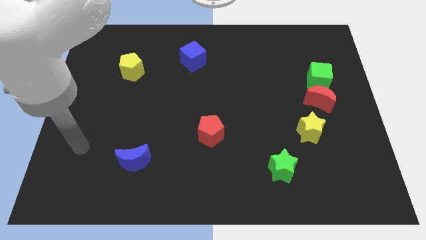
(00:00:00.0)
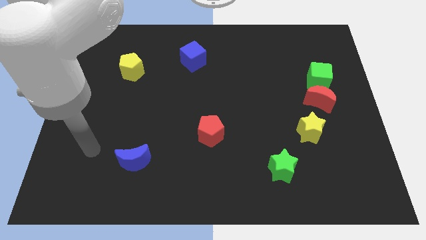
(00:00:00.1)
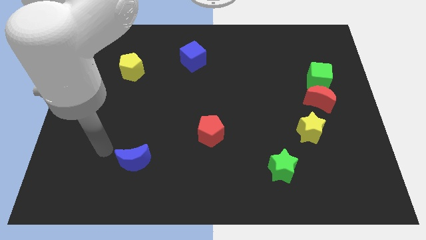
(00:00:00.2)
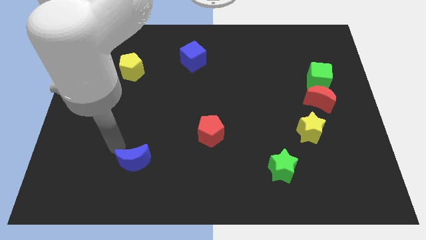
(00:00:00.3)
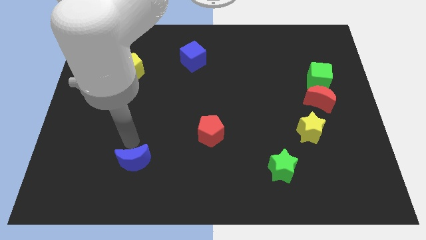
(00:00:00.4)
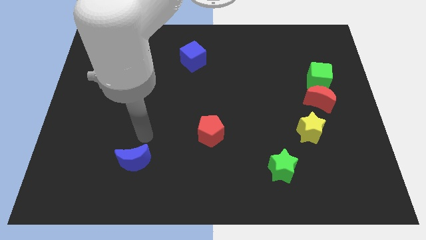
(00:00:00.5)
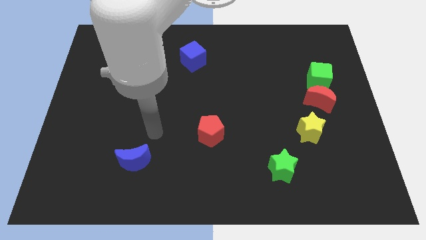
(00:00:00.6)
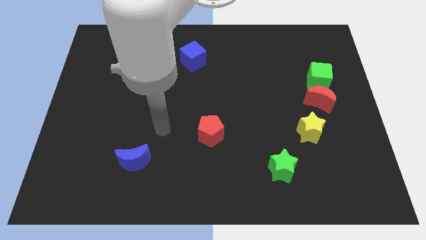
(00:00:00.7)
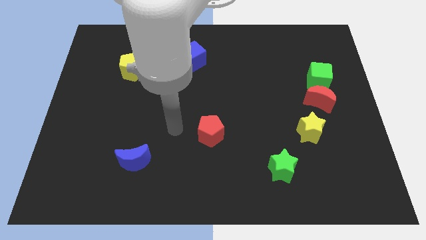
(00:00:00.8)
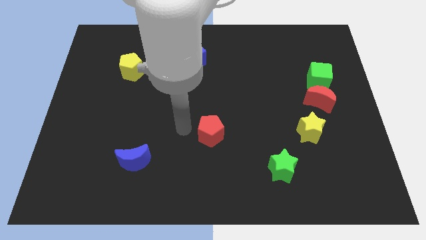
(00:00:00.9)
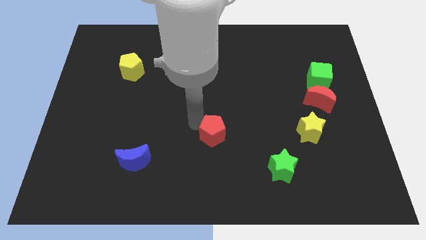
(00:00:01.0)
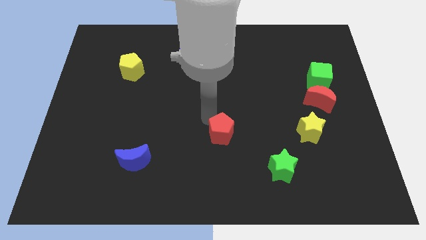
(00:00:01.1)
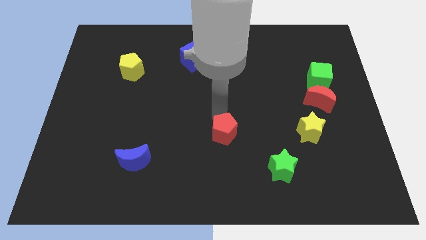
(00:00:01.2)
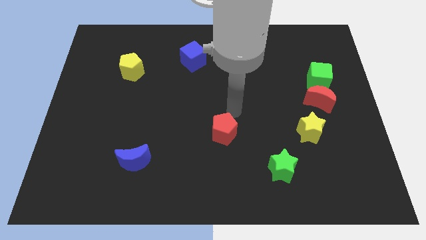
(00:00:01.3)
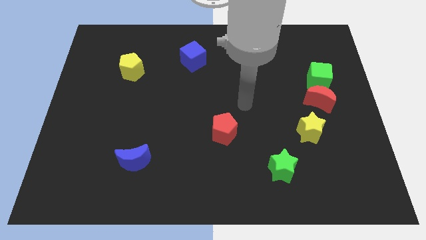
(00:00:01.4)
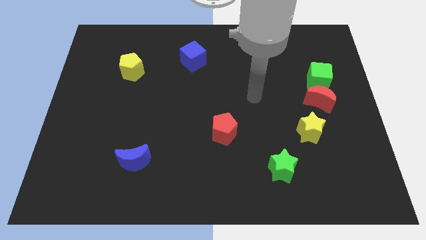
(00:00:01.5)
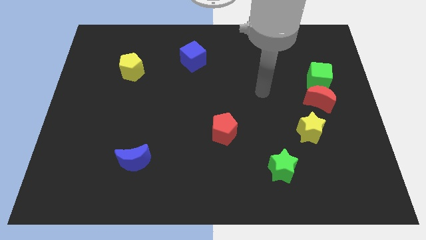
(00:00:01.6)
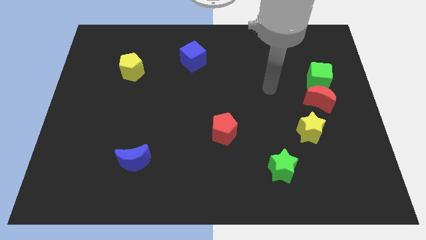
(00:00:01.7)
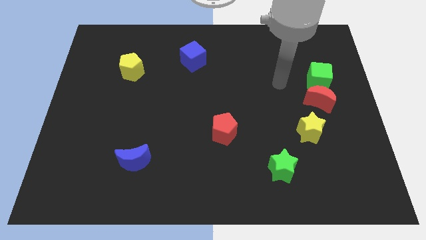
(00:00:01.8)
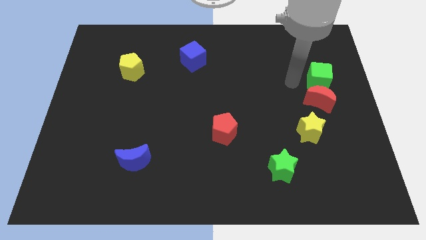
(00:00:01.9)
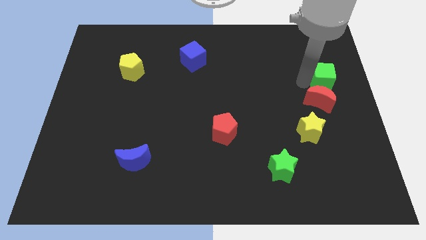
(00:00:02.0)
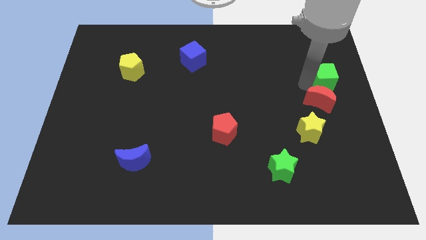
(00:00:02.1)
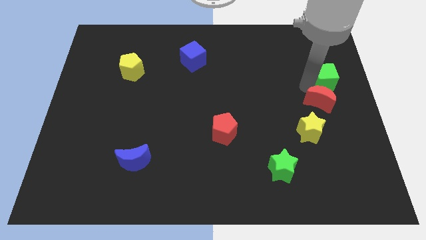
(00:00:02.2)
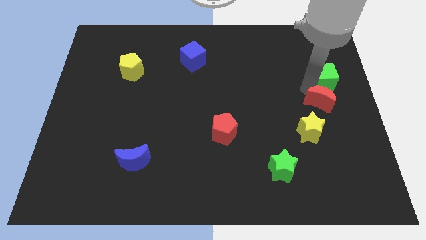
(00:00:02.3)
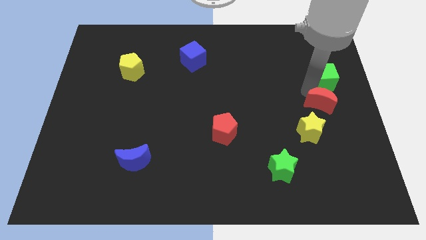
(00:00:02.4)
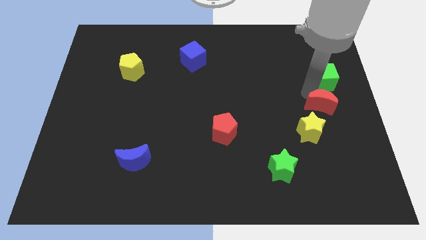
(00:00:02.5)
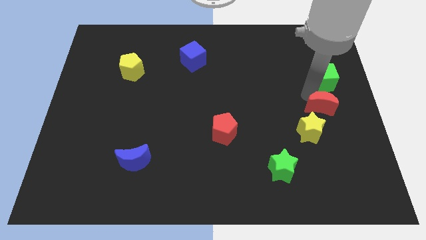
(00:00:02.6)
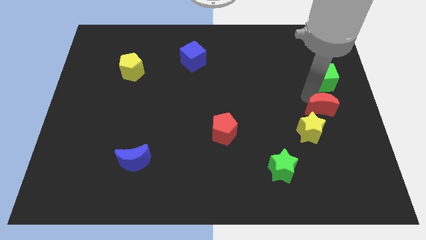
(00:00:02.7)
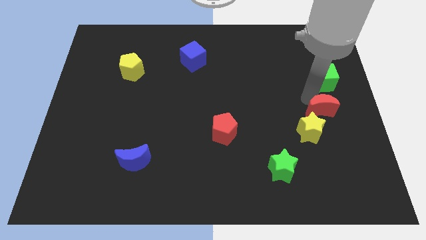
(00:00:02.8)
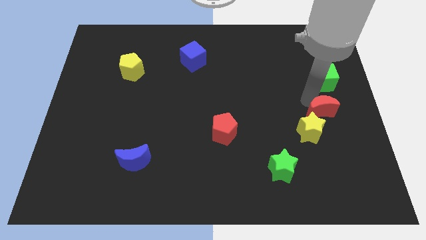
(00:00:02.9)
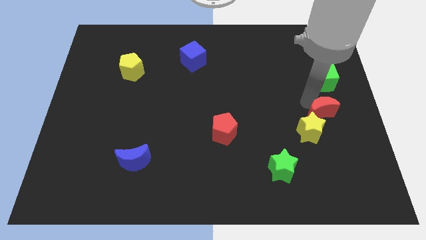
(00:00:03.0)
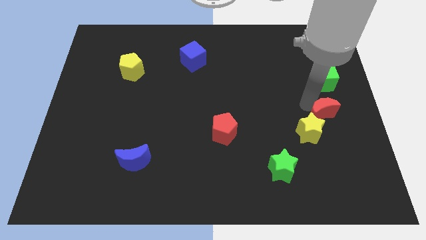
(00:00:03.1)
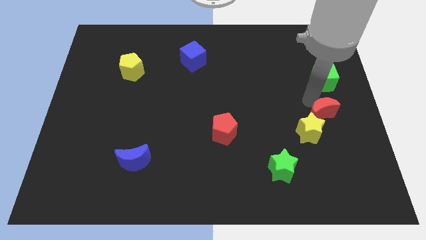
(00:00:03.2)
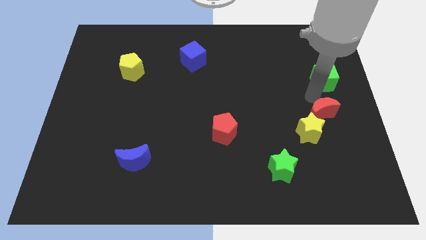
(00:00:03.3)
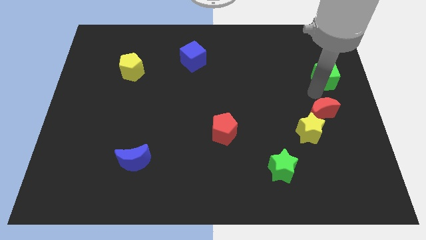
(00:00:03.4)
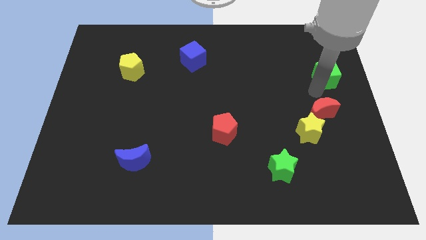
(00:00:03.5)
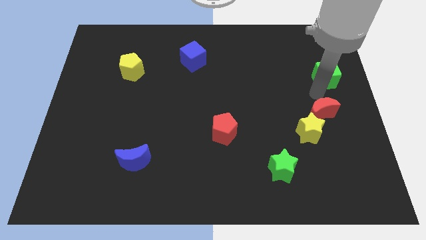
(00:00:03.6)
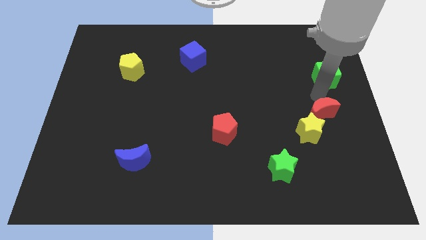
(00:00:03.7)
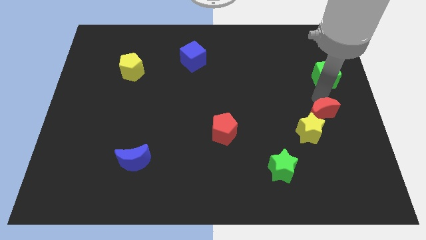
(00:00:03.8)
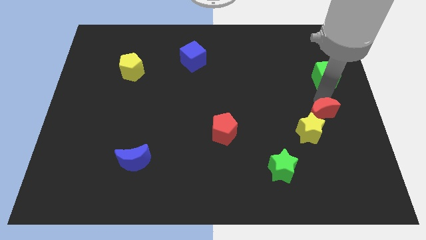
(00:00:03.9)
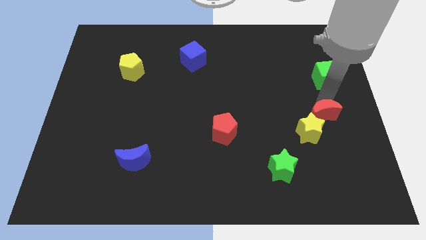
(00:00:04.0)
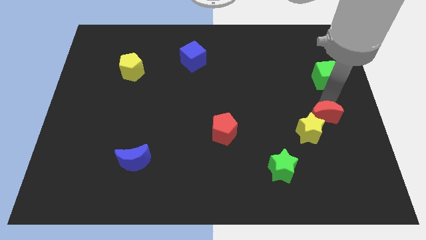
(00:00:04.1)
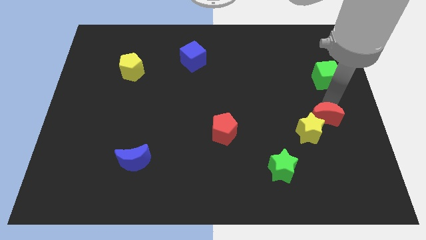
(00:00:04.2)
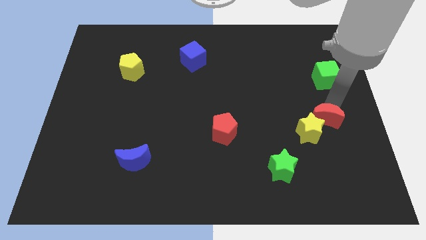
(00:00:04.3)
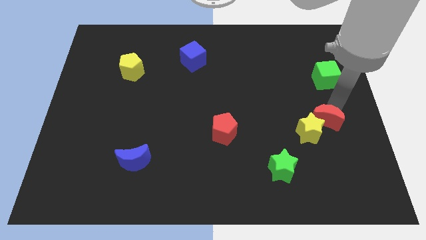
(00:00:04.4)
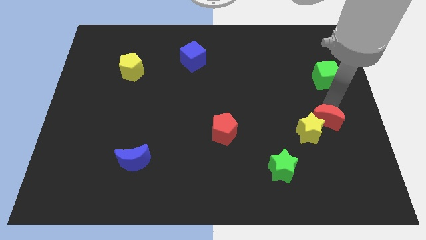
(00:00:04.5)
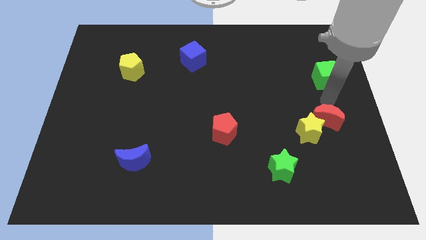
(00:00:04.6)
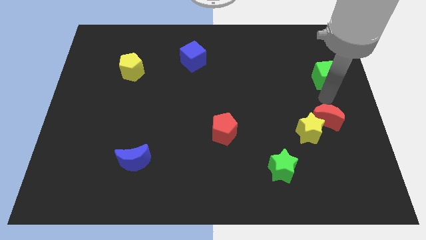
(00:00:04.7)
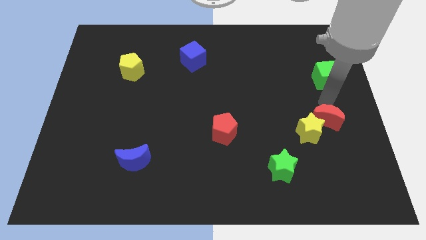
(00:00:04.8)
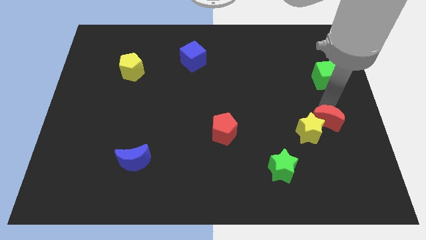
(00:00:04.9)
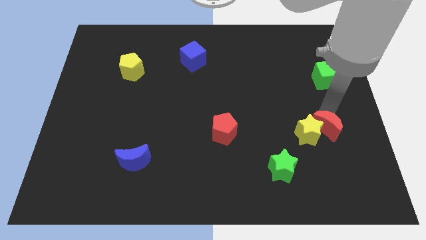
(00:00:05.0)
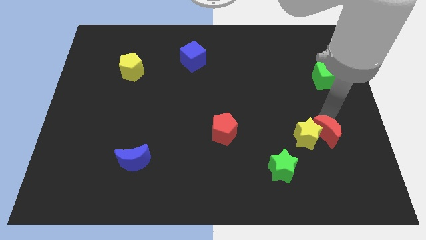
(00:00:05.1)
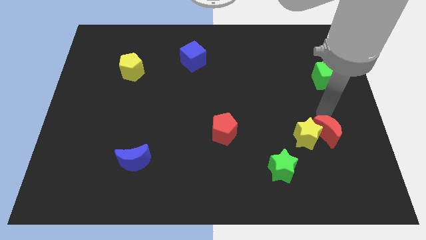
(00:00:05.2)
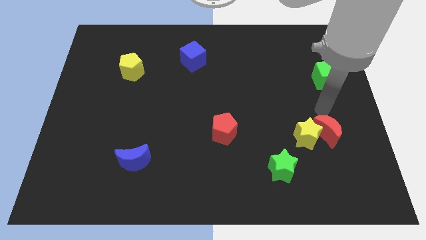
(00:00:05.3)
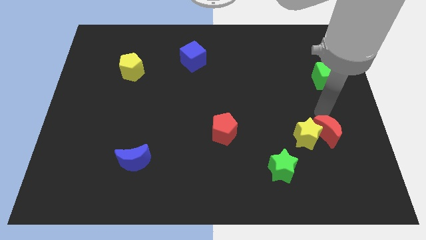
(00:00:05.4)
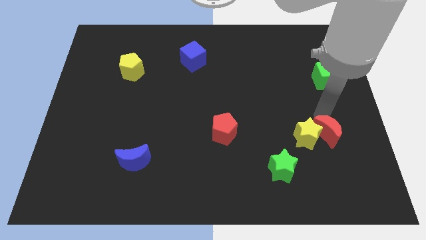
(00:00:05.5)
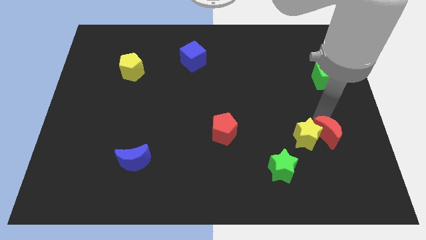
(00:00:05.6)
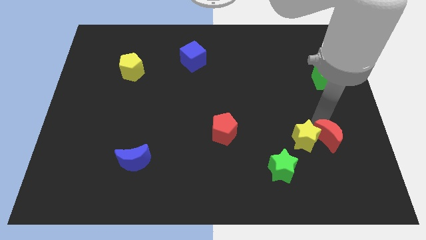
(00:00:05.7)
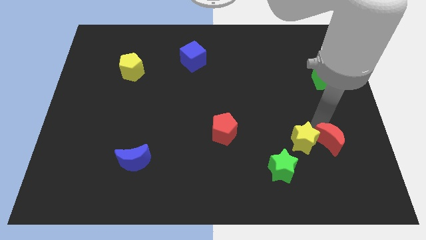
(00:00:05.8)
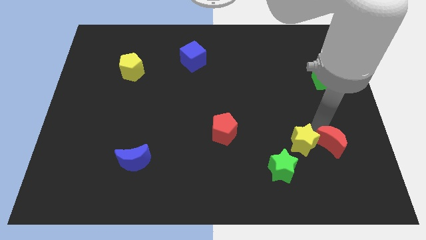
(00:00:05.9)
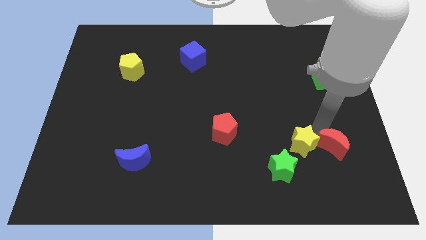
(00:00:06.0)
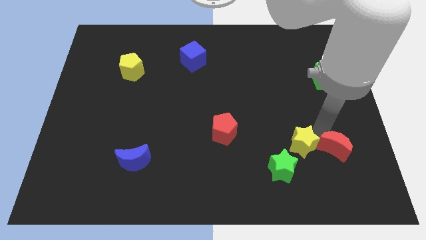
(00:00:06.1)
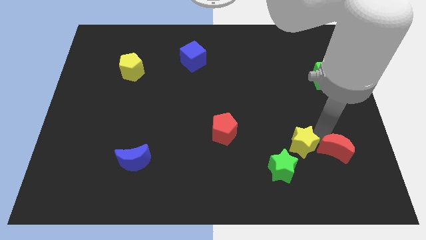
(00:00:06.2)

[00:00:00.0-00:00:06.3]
put the red moon to the right of the green star

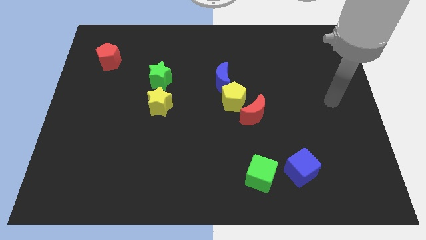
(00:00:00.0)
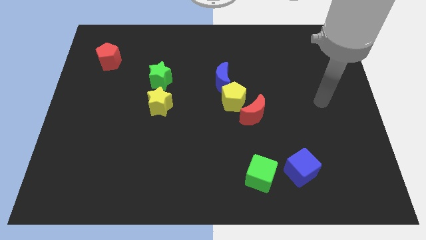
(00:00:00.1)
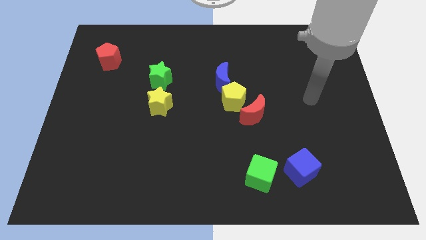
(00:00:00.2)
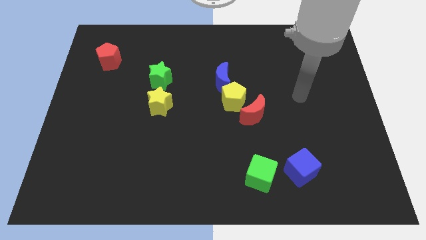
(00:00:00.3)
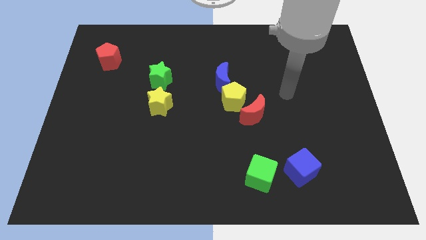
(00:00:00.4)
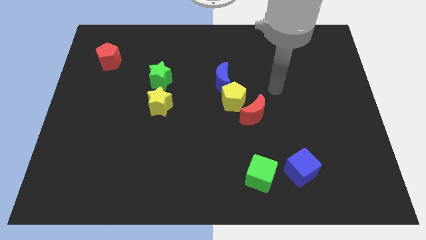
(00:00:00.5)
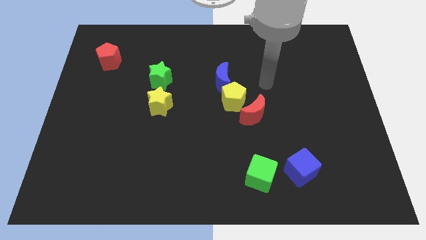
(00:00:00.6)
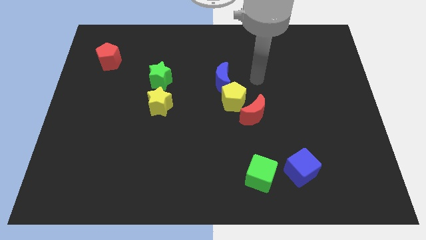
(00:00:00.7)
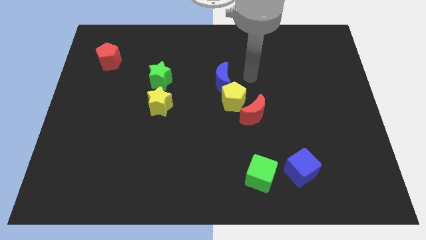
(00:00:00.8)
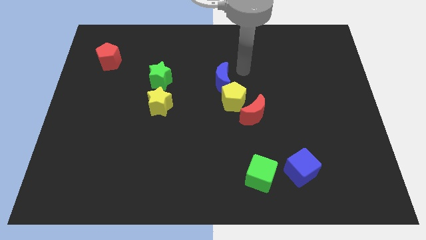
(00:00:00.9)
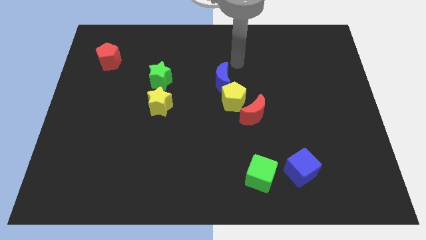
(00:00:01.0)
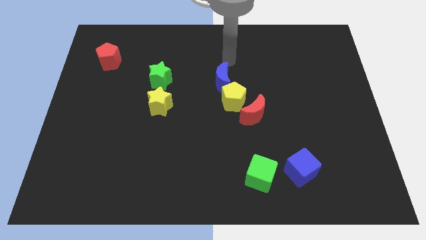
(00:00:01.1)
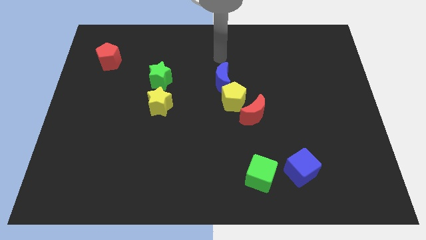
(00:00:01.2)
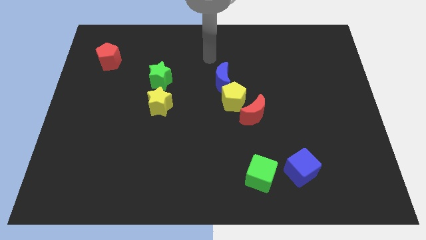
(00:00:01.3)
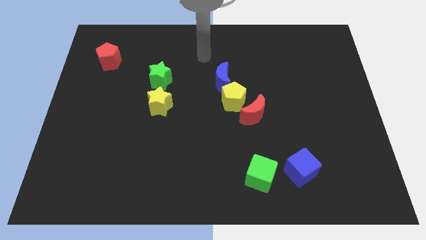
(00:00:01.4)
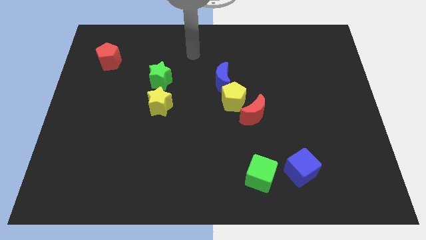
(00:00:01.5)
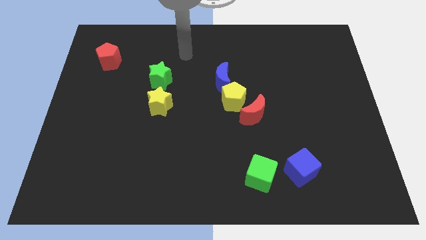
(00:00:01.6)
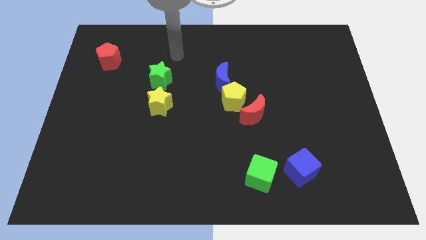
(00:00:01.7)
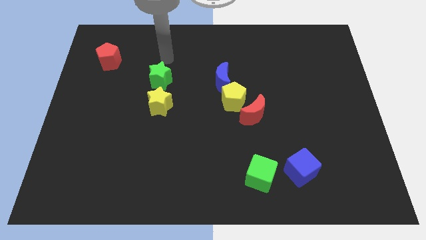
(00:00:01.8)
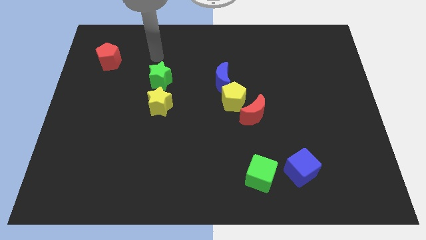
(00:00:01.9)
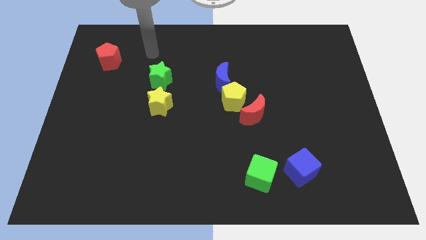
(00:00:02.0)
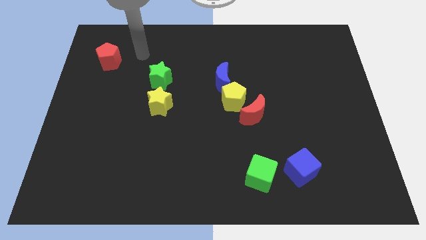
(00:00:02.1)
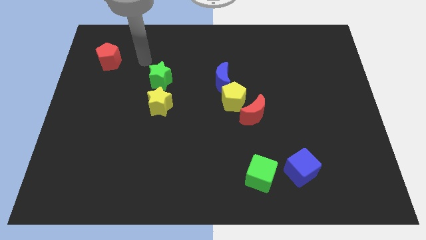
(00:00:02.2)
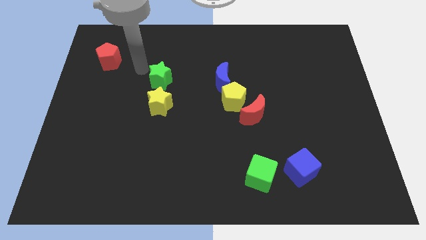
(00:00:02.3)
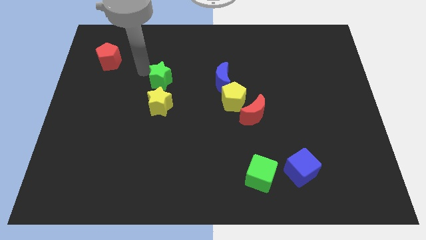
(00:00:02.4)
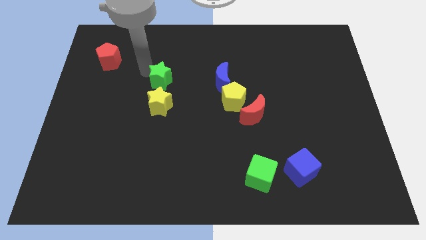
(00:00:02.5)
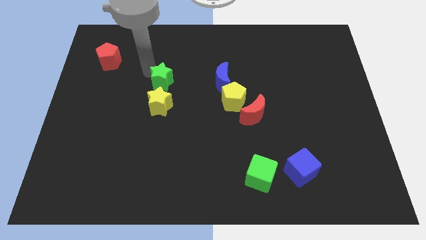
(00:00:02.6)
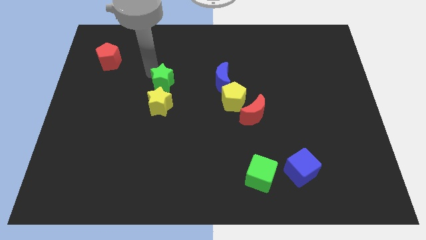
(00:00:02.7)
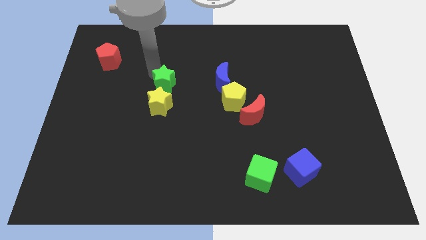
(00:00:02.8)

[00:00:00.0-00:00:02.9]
put the green star diagonally up and to the right of the yellow star
